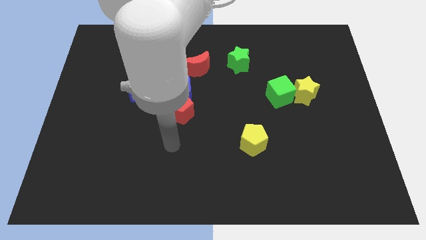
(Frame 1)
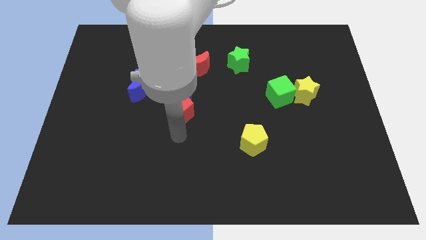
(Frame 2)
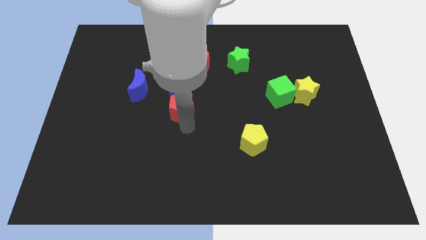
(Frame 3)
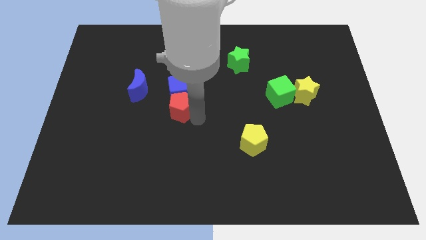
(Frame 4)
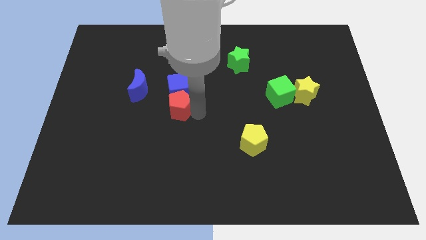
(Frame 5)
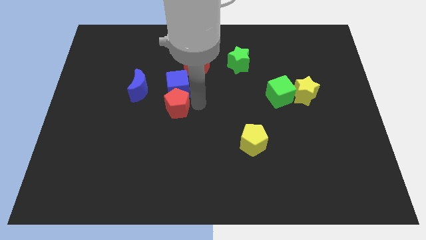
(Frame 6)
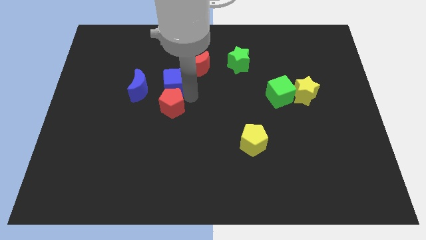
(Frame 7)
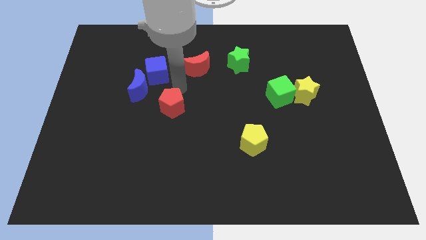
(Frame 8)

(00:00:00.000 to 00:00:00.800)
separate the red pentagon from the blue cube

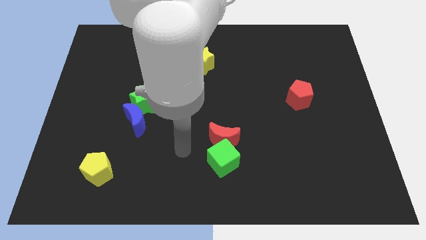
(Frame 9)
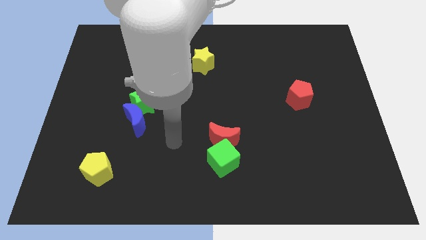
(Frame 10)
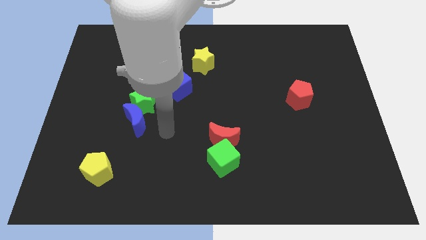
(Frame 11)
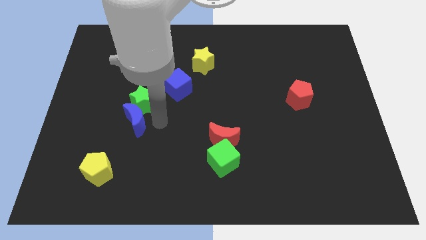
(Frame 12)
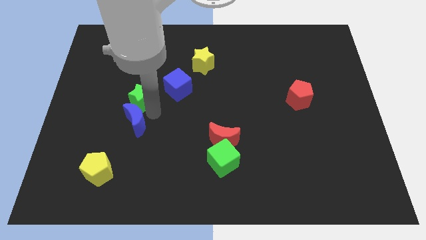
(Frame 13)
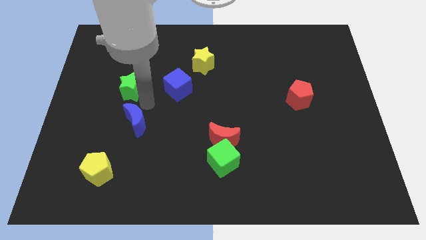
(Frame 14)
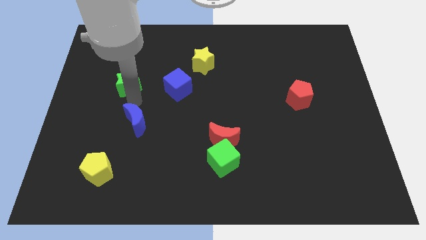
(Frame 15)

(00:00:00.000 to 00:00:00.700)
move the blue moon away from the green star

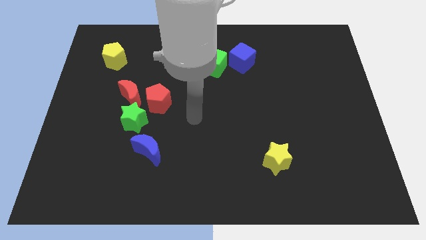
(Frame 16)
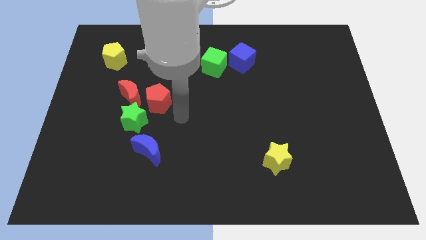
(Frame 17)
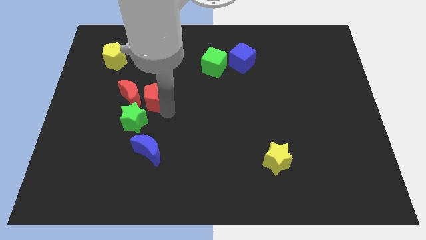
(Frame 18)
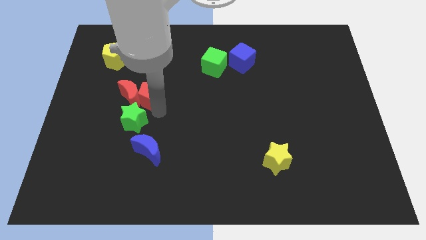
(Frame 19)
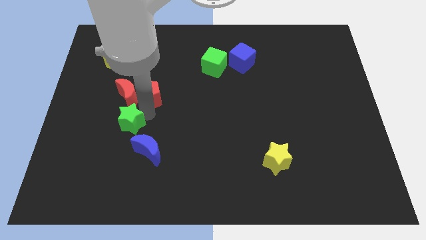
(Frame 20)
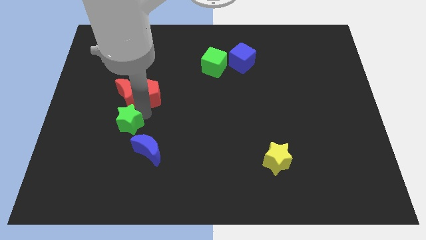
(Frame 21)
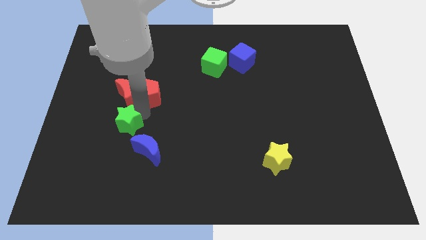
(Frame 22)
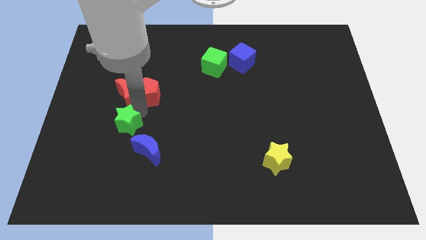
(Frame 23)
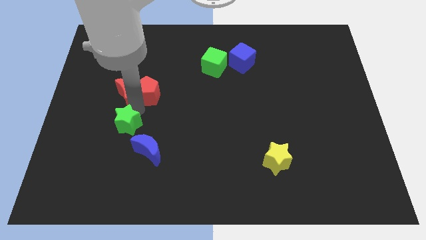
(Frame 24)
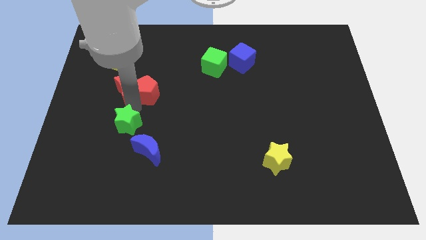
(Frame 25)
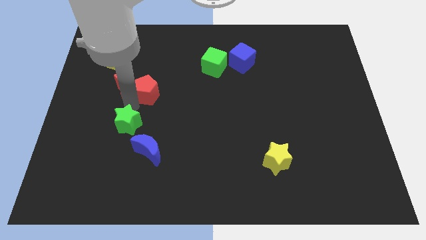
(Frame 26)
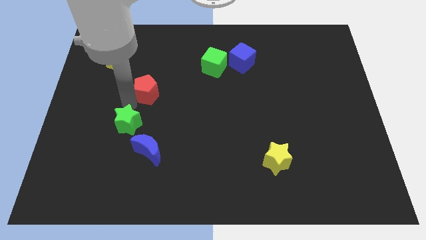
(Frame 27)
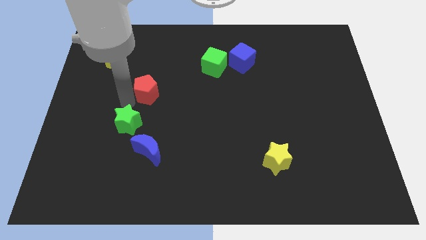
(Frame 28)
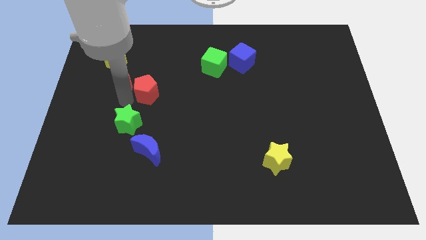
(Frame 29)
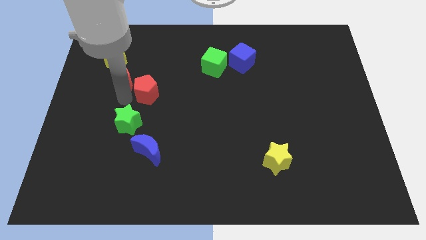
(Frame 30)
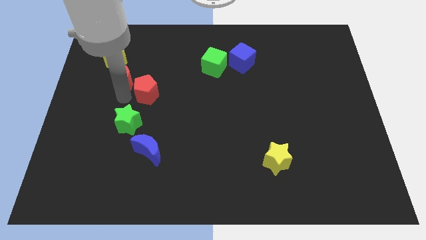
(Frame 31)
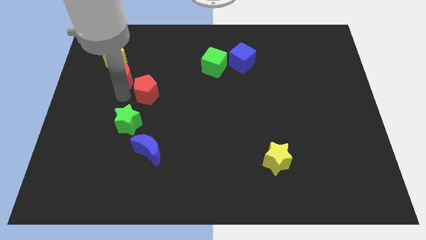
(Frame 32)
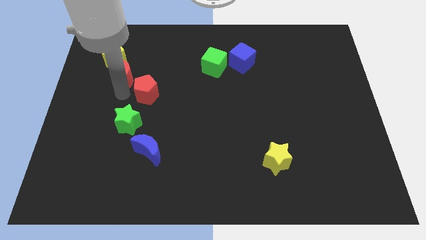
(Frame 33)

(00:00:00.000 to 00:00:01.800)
pull the red moon apart from the red pentagon and green star

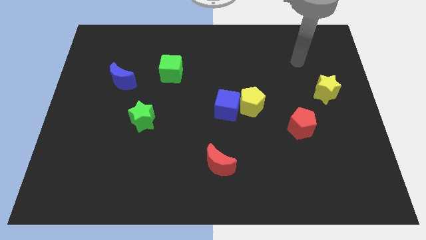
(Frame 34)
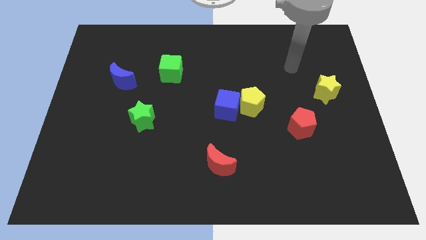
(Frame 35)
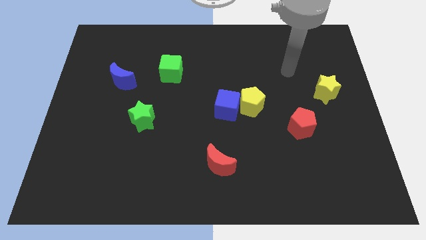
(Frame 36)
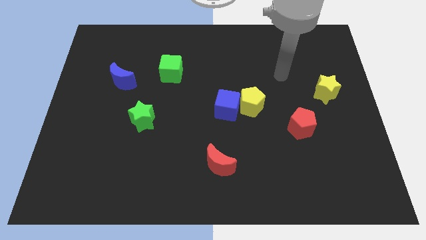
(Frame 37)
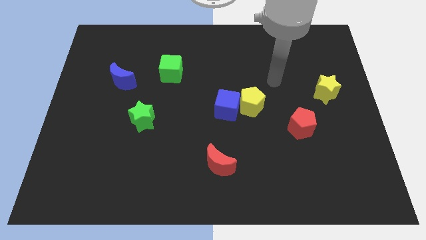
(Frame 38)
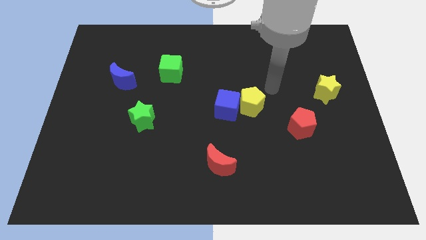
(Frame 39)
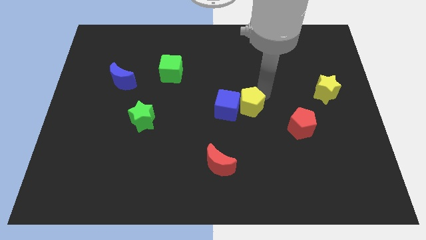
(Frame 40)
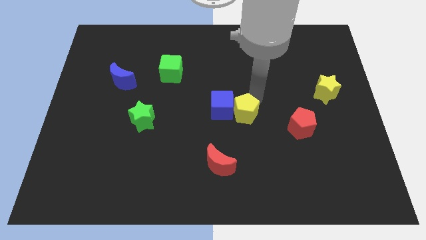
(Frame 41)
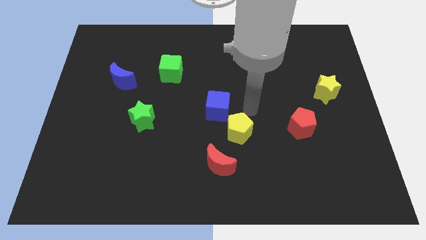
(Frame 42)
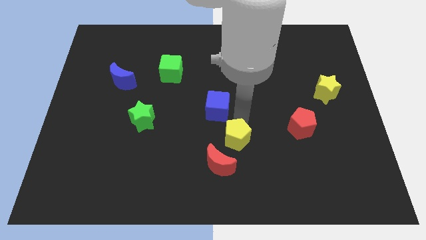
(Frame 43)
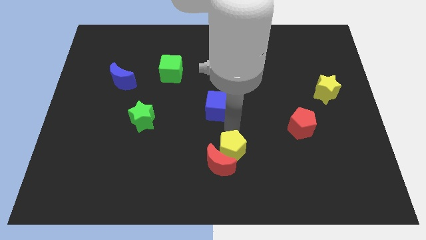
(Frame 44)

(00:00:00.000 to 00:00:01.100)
move the blue cube away from the yellow pentagon

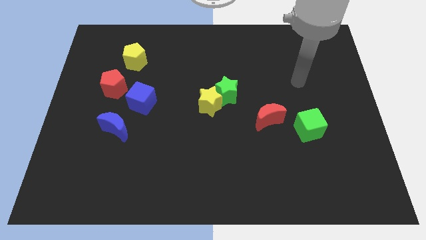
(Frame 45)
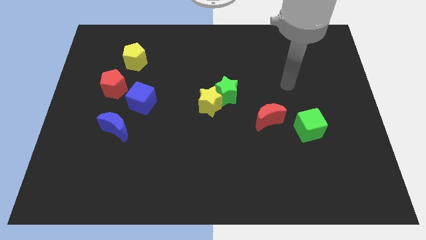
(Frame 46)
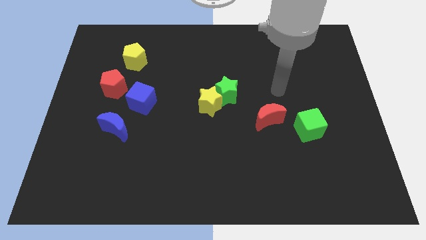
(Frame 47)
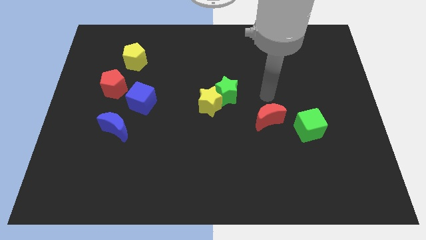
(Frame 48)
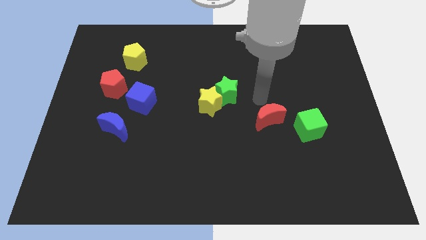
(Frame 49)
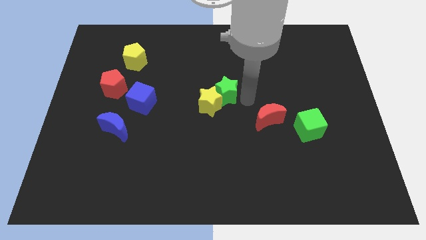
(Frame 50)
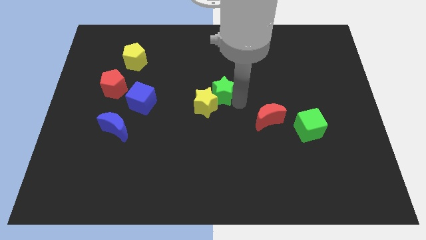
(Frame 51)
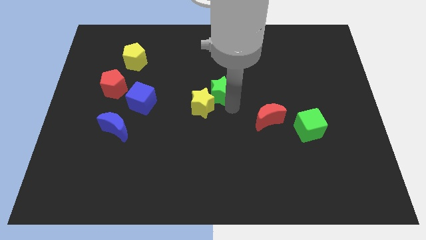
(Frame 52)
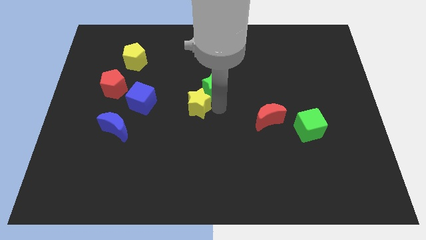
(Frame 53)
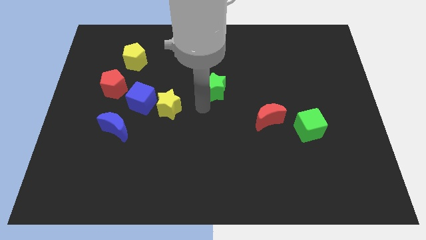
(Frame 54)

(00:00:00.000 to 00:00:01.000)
move the green star away from the yellow star

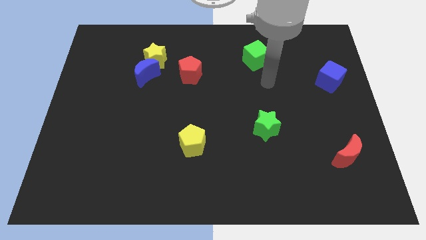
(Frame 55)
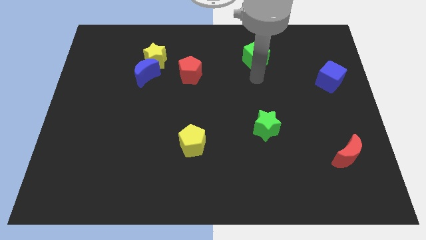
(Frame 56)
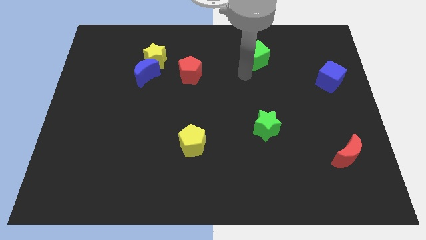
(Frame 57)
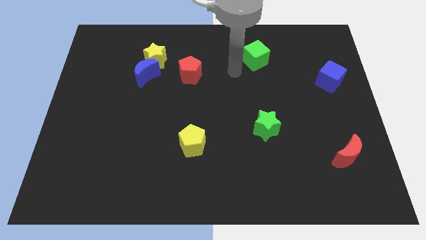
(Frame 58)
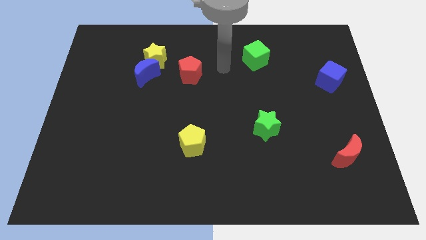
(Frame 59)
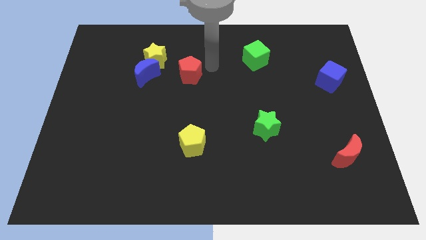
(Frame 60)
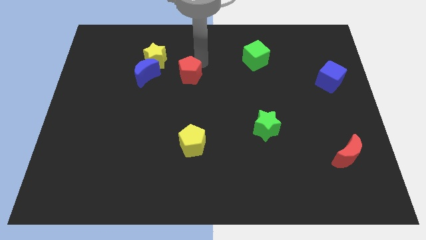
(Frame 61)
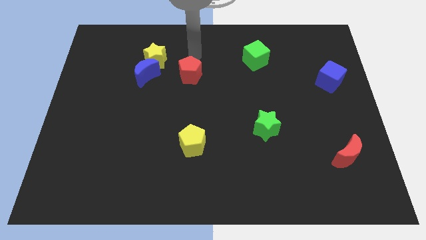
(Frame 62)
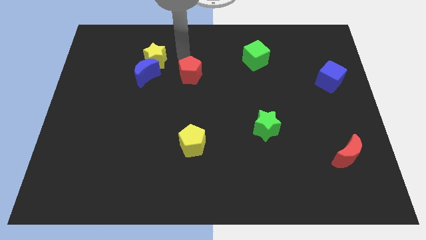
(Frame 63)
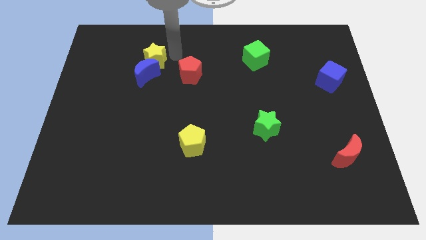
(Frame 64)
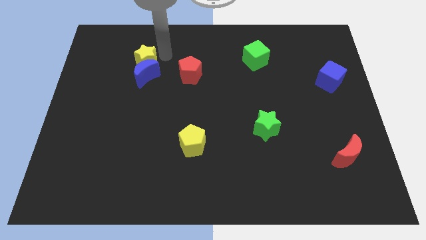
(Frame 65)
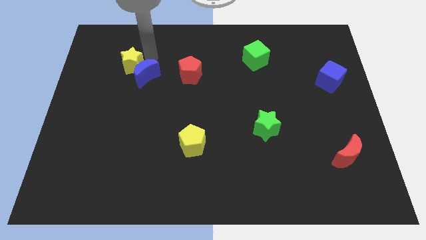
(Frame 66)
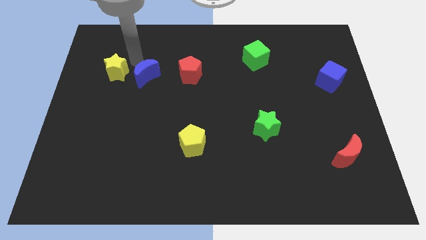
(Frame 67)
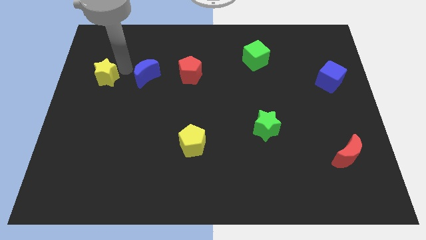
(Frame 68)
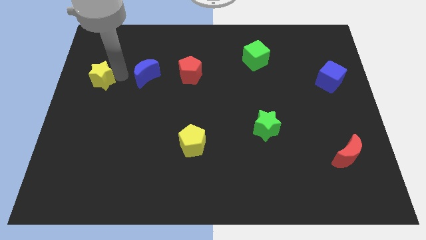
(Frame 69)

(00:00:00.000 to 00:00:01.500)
move the blue moon away from the yellow star

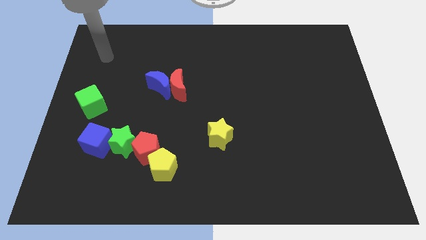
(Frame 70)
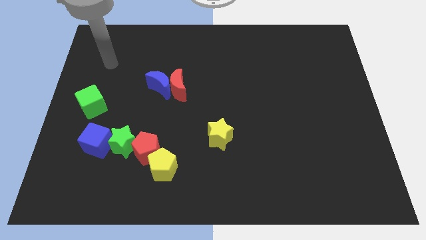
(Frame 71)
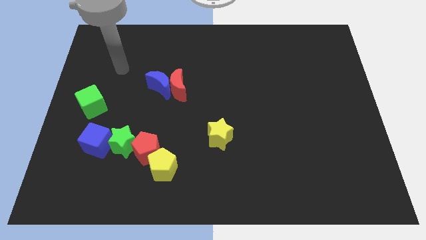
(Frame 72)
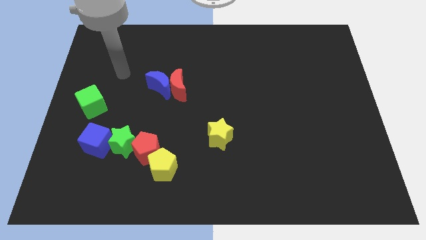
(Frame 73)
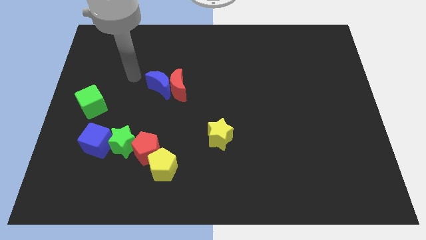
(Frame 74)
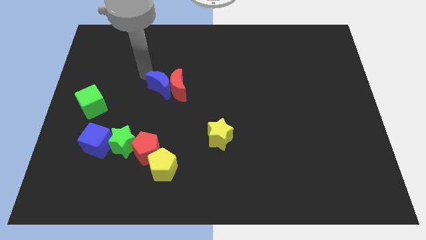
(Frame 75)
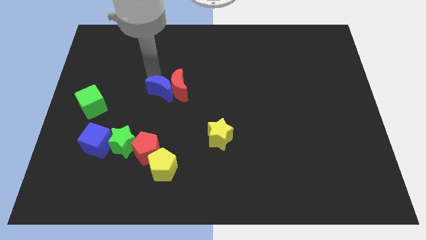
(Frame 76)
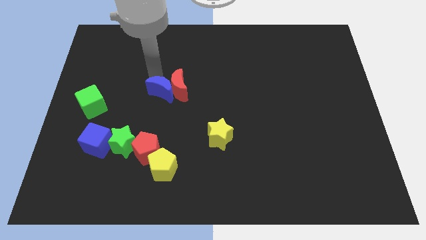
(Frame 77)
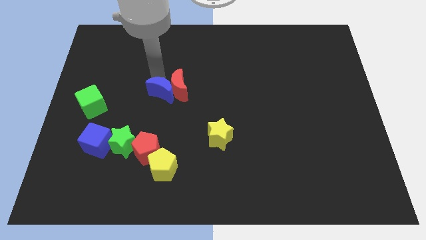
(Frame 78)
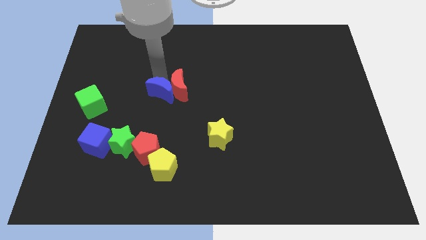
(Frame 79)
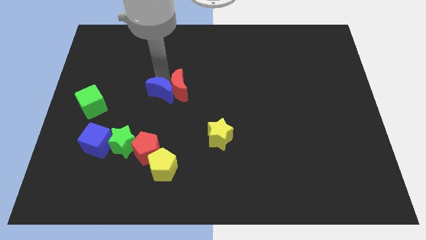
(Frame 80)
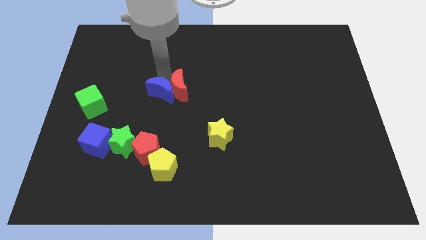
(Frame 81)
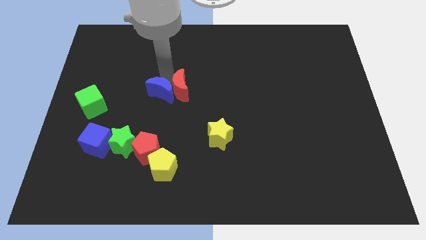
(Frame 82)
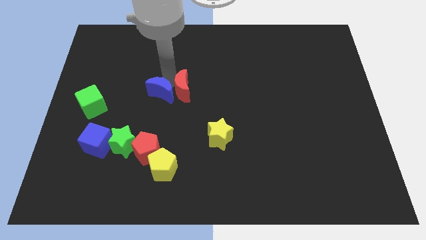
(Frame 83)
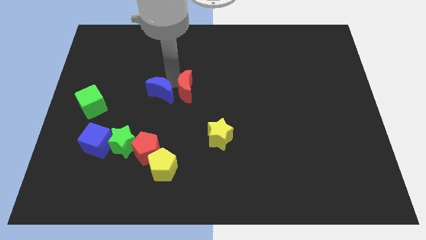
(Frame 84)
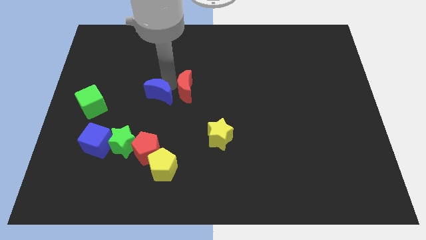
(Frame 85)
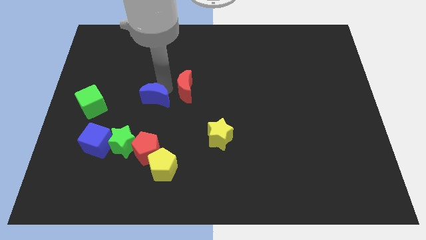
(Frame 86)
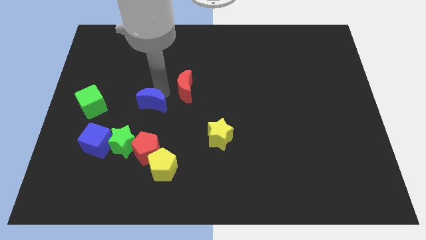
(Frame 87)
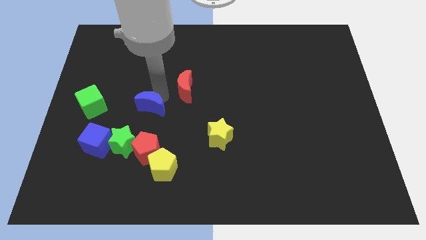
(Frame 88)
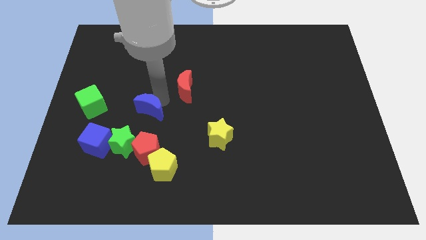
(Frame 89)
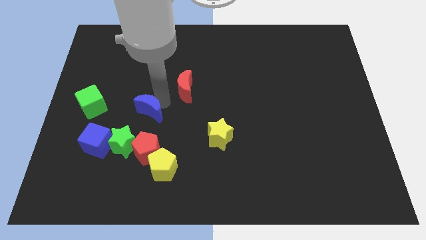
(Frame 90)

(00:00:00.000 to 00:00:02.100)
move the red moon away from the blue moon

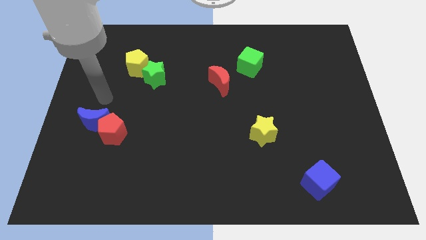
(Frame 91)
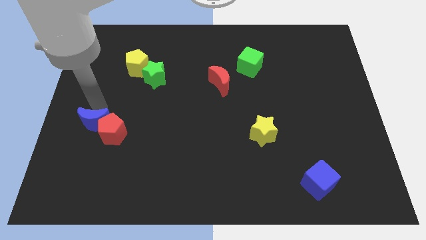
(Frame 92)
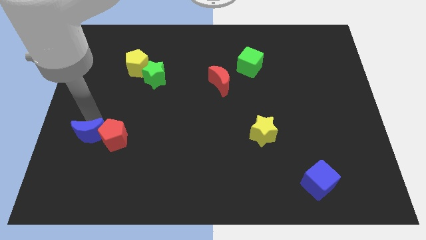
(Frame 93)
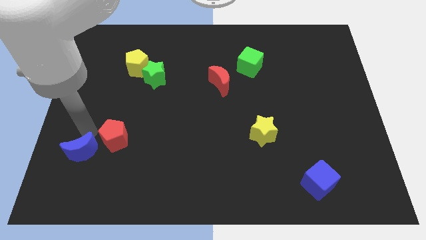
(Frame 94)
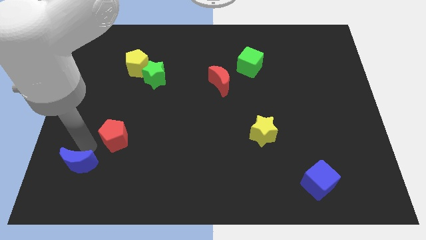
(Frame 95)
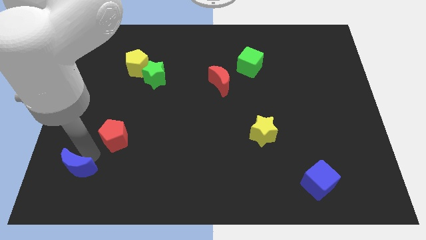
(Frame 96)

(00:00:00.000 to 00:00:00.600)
separate the red pentagon from the blue moon
